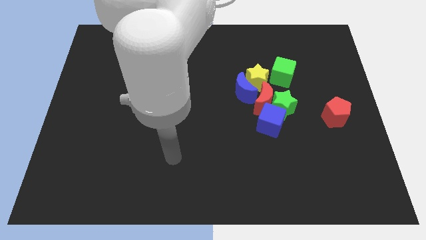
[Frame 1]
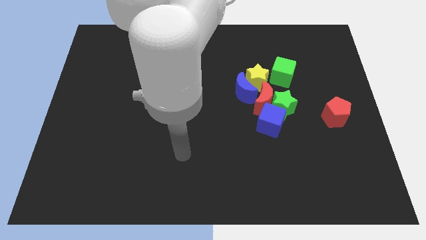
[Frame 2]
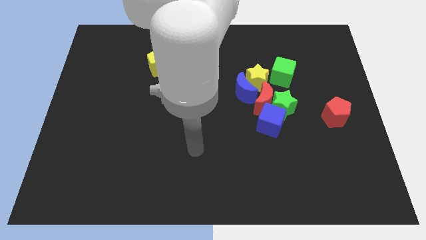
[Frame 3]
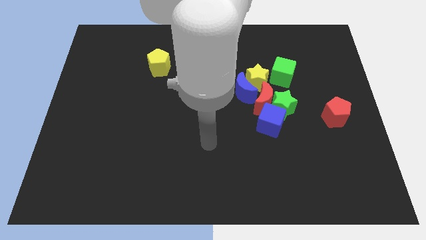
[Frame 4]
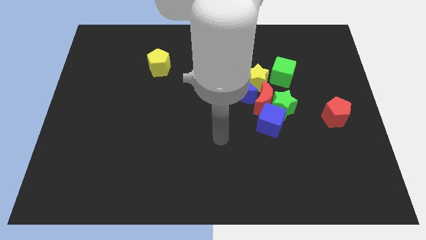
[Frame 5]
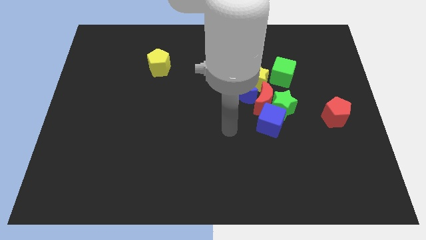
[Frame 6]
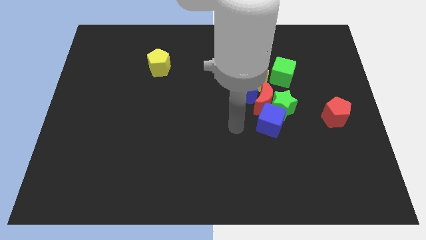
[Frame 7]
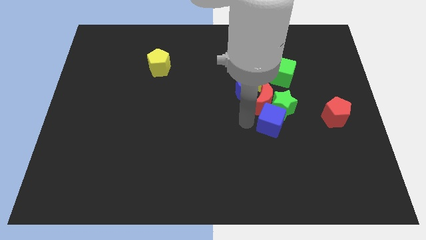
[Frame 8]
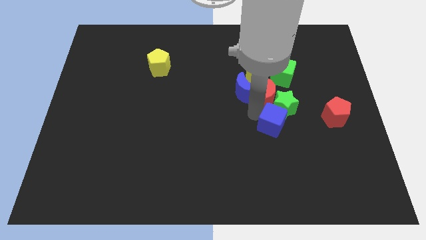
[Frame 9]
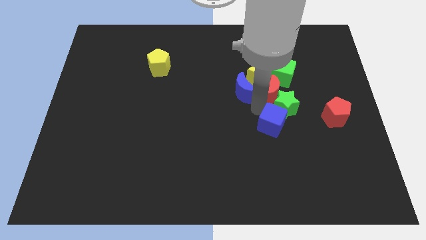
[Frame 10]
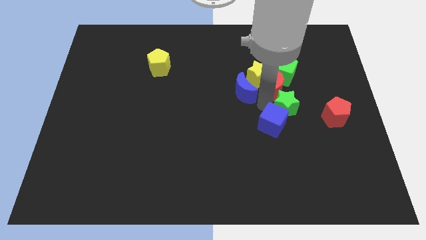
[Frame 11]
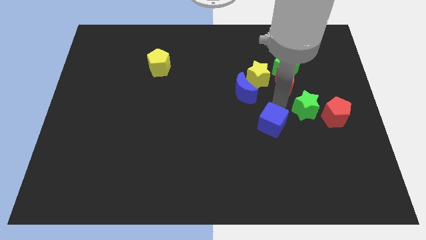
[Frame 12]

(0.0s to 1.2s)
move the blue cube away from the green star and red moon

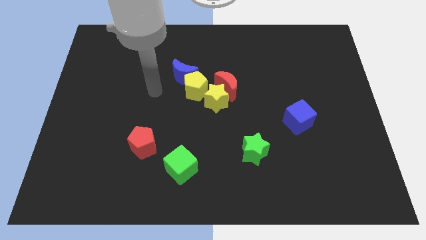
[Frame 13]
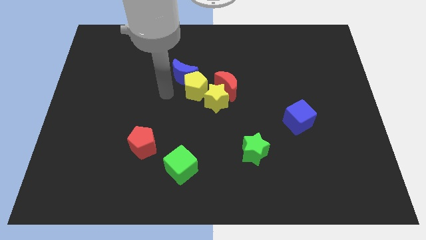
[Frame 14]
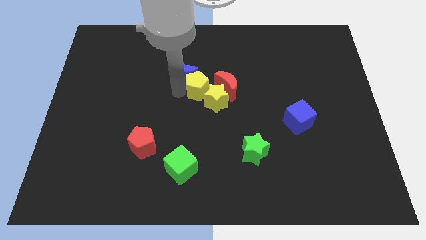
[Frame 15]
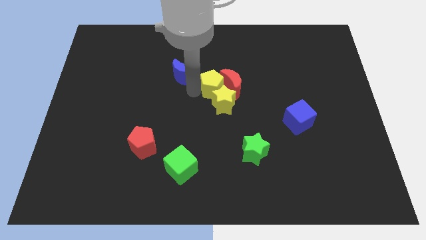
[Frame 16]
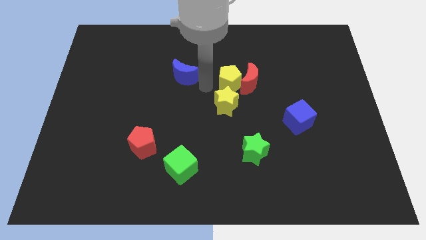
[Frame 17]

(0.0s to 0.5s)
separate the blue moon from the yellow pentagon

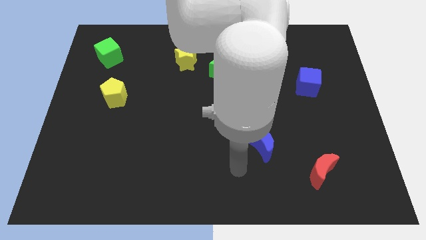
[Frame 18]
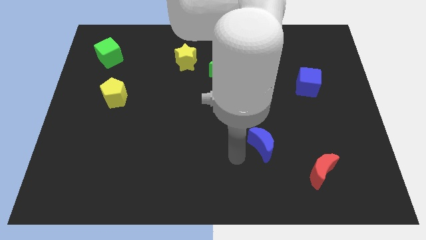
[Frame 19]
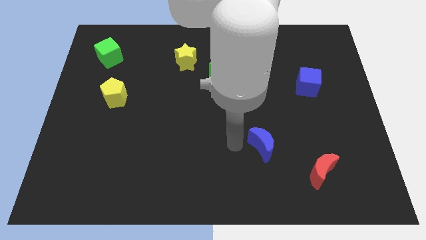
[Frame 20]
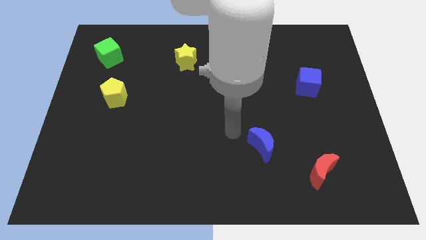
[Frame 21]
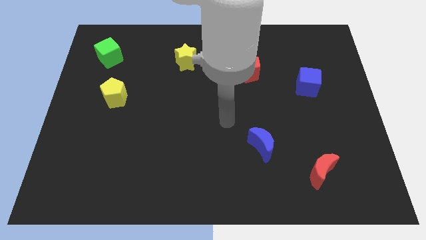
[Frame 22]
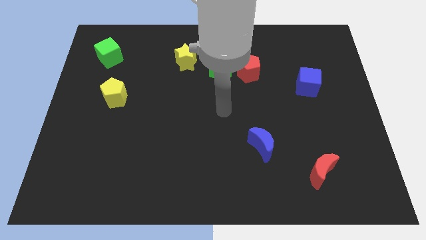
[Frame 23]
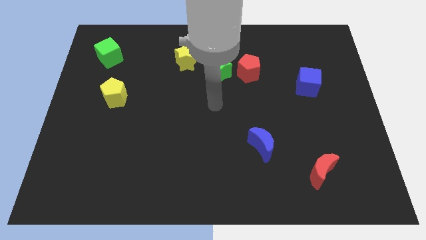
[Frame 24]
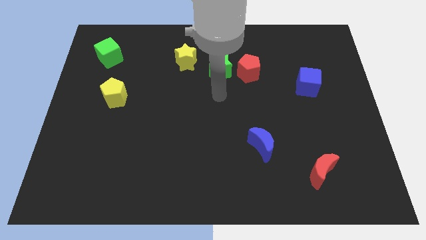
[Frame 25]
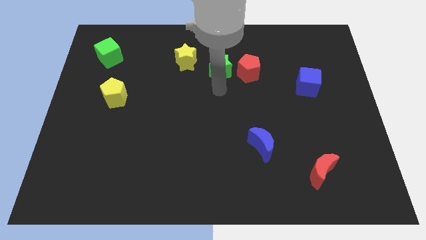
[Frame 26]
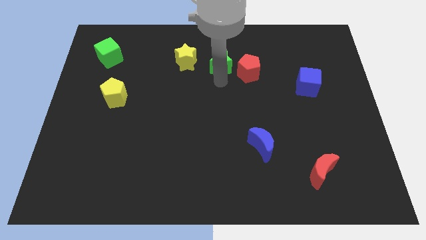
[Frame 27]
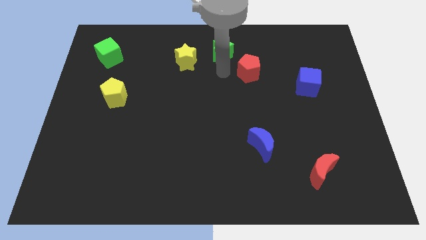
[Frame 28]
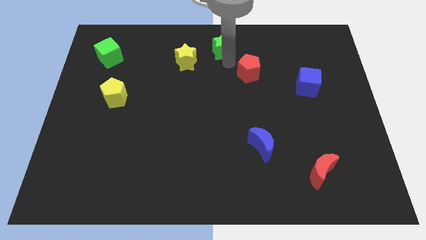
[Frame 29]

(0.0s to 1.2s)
separate the red pentagon from the green star

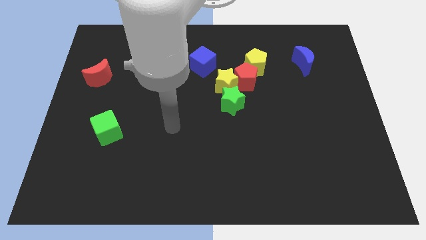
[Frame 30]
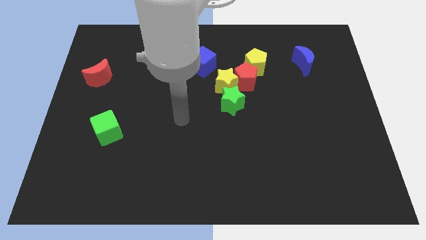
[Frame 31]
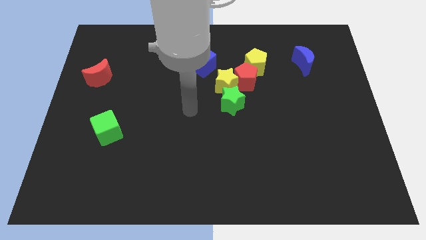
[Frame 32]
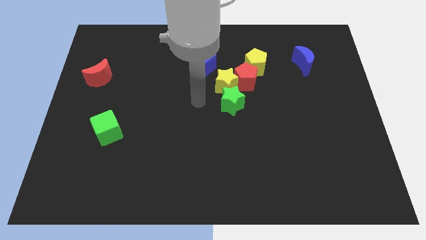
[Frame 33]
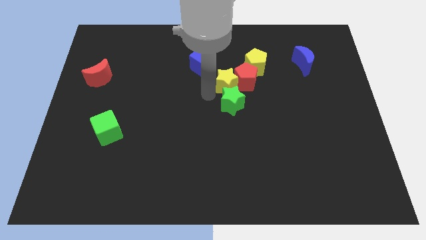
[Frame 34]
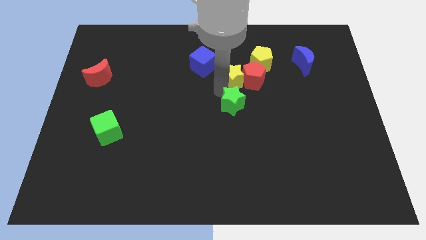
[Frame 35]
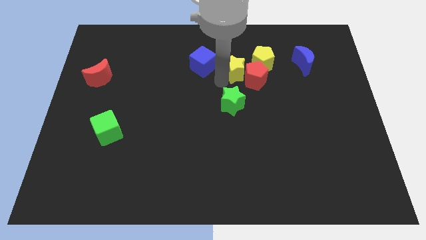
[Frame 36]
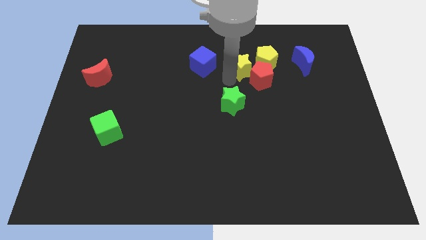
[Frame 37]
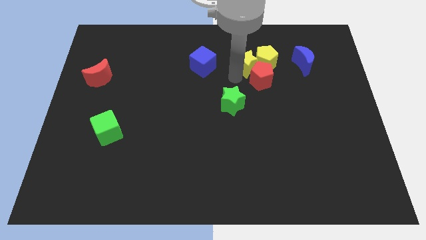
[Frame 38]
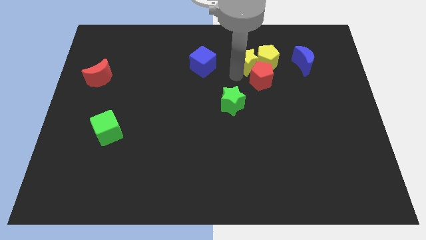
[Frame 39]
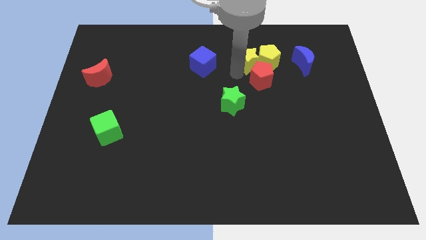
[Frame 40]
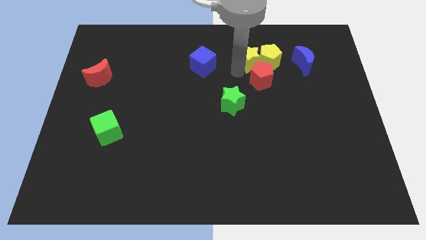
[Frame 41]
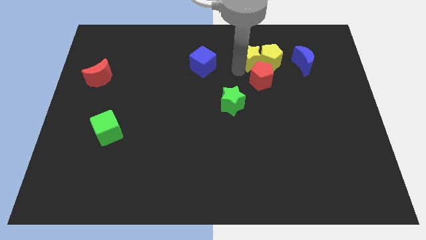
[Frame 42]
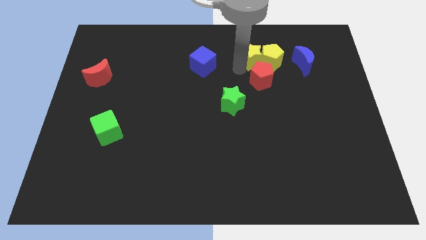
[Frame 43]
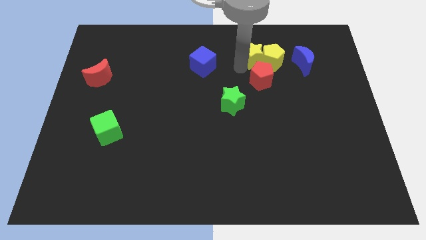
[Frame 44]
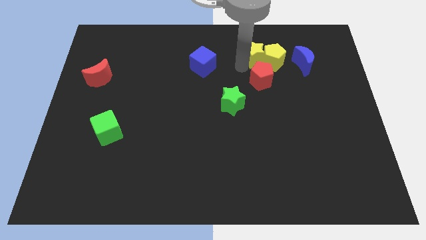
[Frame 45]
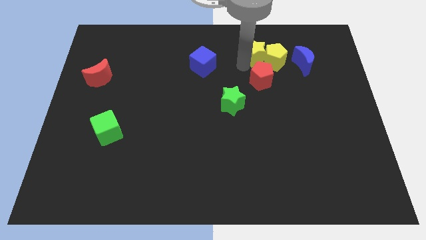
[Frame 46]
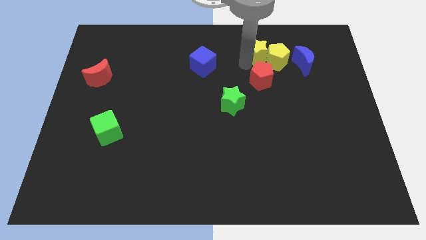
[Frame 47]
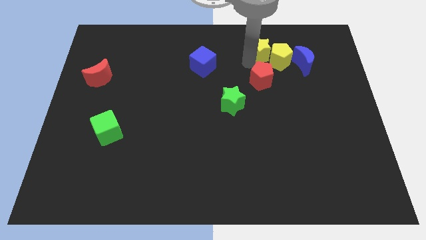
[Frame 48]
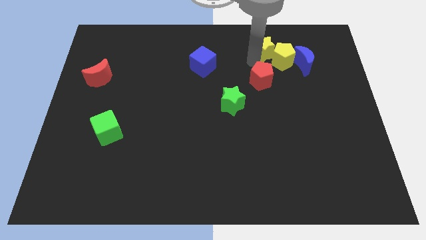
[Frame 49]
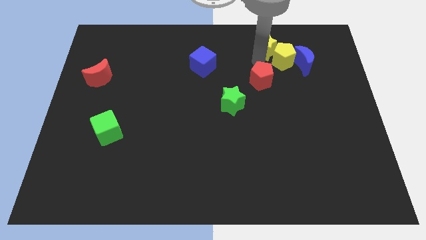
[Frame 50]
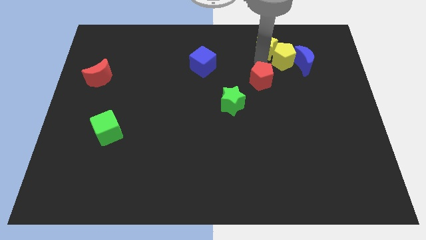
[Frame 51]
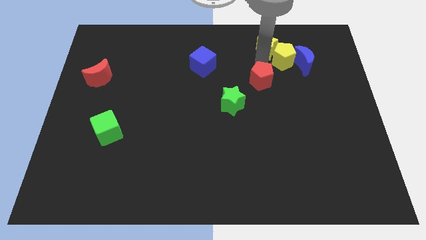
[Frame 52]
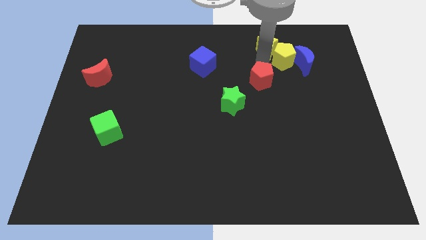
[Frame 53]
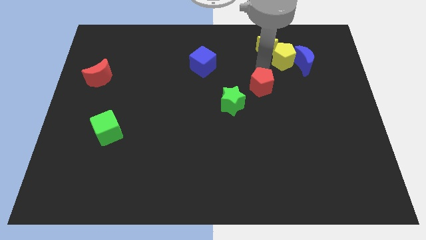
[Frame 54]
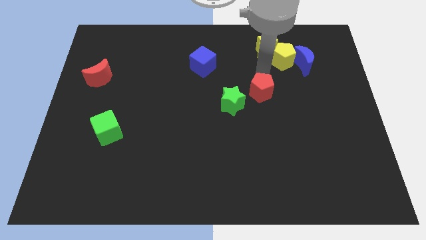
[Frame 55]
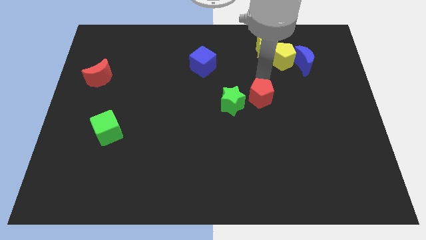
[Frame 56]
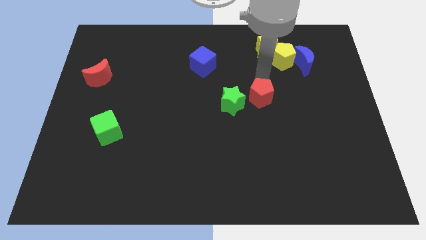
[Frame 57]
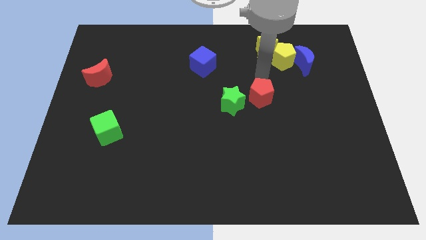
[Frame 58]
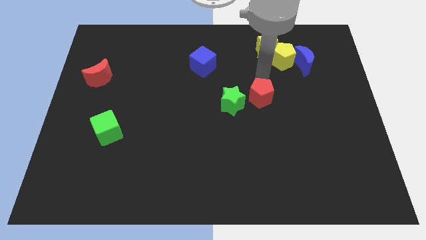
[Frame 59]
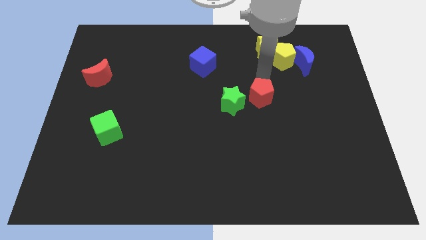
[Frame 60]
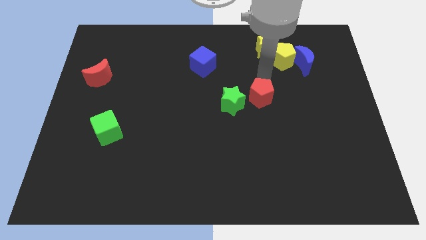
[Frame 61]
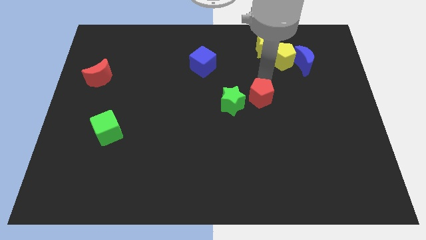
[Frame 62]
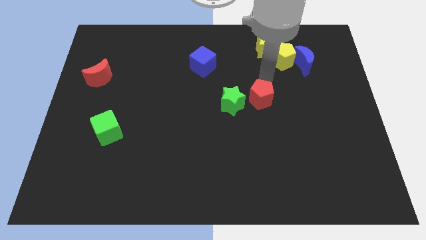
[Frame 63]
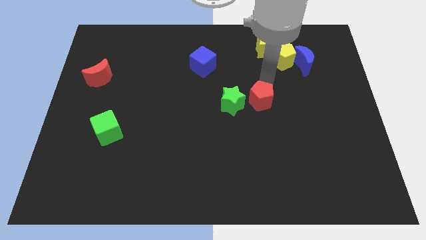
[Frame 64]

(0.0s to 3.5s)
separate the red pentagon from the yellow star, yellow pentagon, and green star

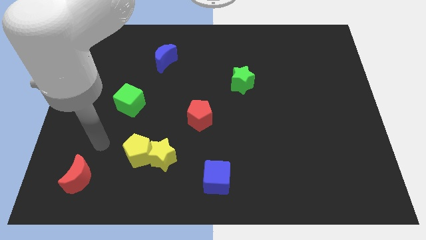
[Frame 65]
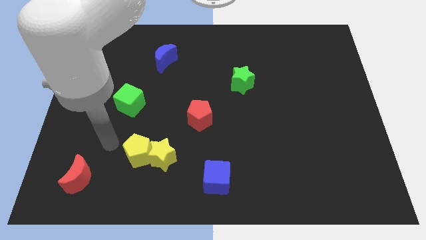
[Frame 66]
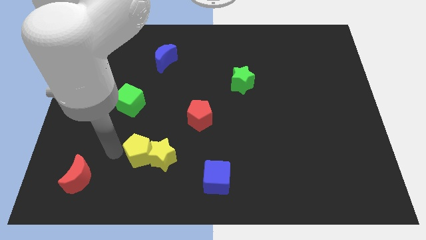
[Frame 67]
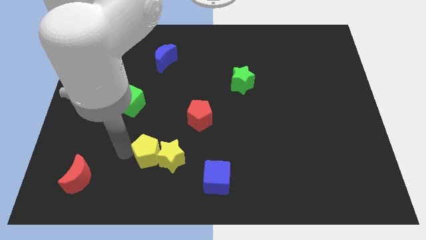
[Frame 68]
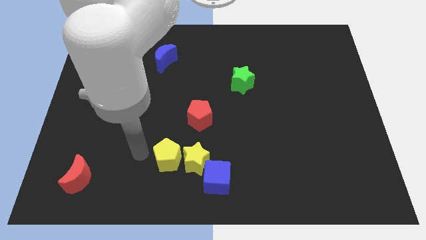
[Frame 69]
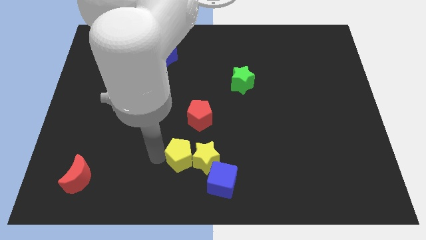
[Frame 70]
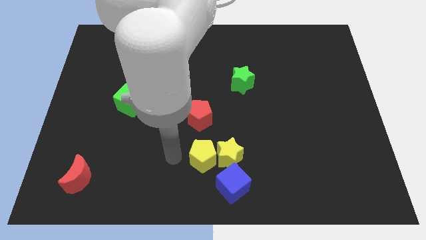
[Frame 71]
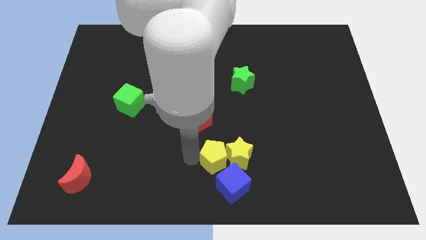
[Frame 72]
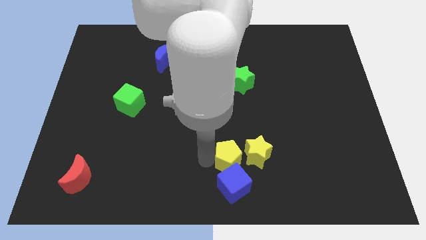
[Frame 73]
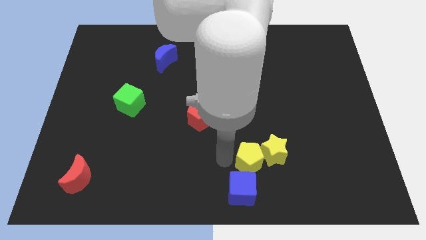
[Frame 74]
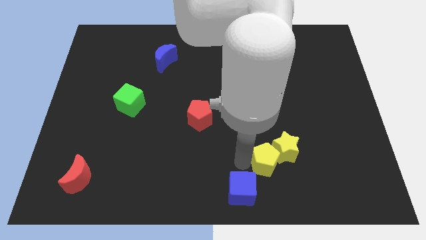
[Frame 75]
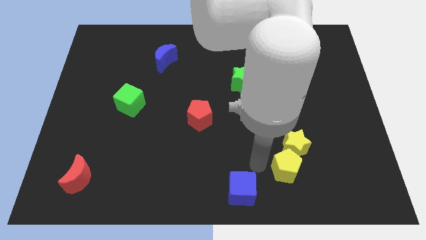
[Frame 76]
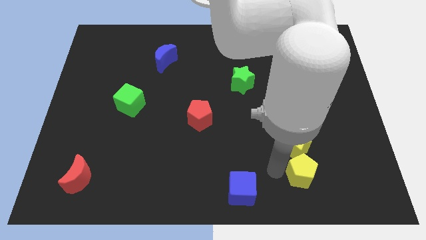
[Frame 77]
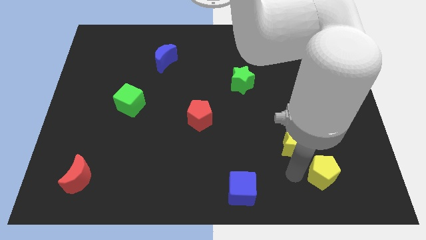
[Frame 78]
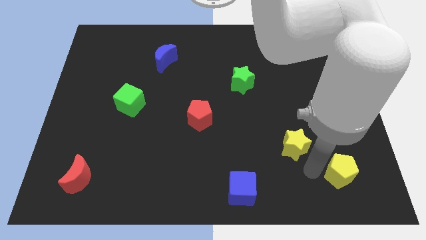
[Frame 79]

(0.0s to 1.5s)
pull the yellow star apart from the yellow pentagon

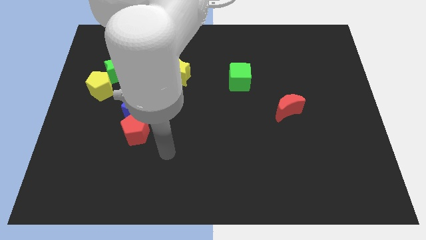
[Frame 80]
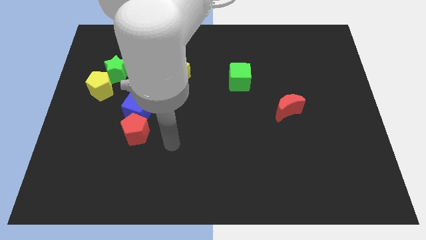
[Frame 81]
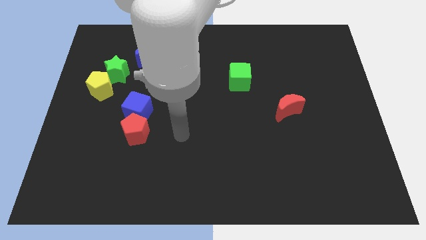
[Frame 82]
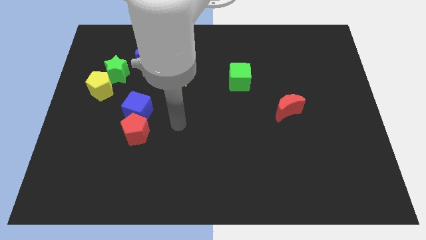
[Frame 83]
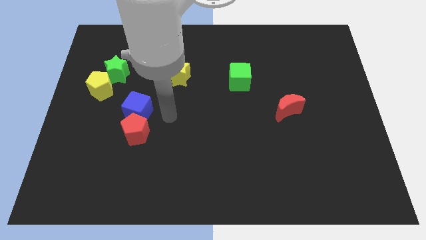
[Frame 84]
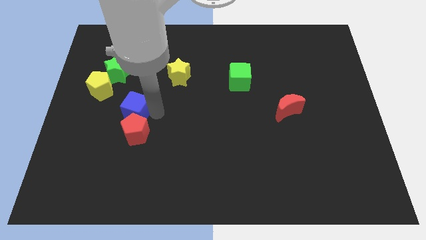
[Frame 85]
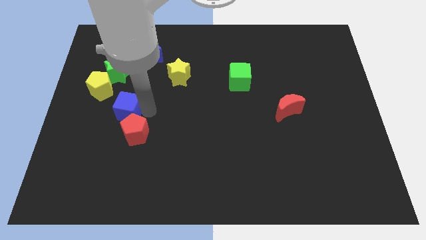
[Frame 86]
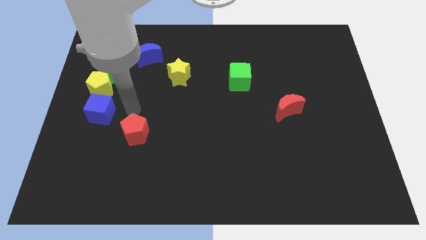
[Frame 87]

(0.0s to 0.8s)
pull the red pentagon apart from the blue cube

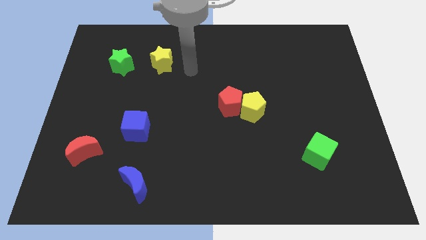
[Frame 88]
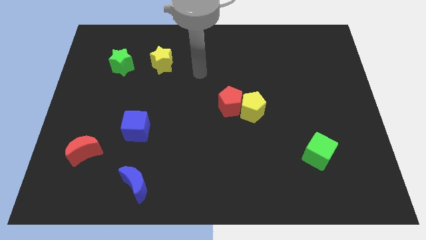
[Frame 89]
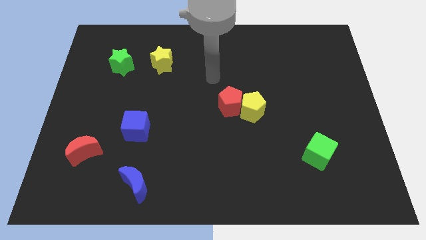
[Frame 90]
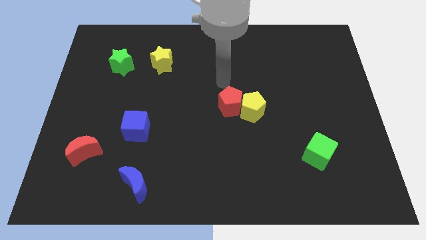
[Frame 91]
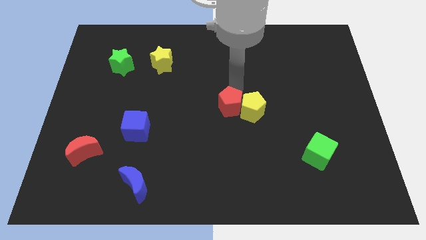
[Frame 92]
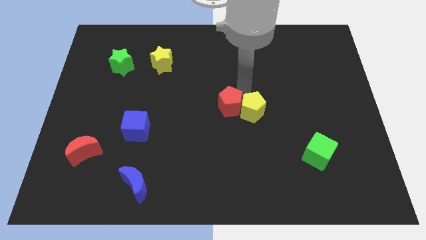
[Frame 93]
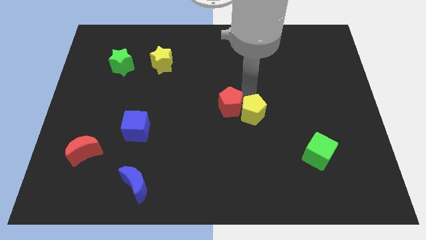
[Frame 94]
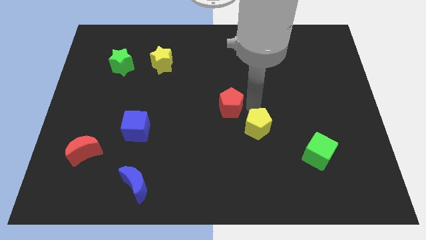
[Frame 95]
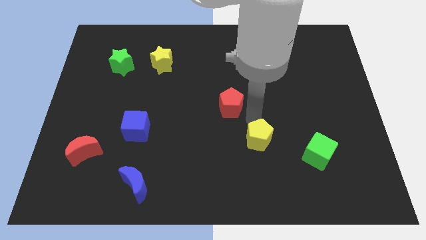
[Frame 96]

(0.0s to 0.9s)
separate the red pentagon from the yellow pentagon
